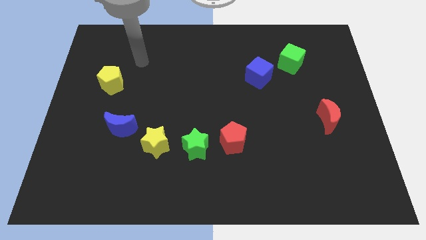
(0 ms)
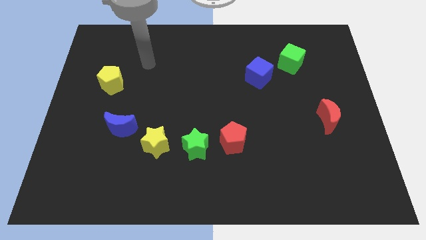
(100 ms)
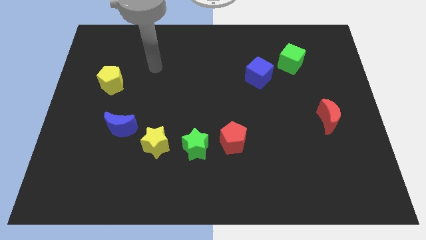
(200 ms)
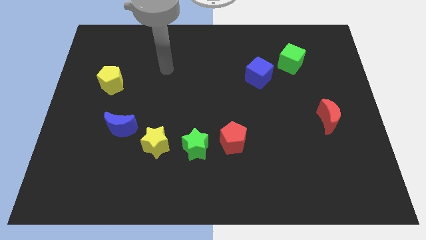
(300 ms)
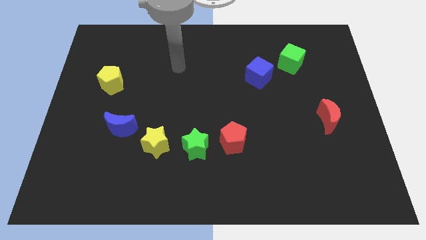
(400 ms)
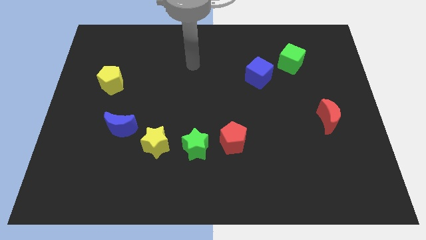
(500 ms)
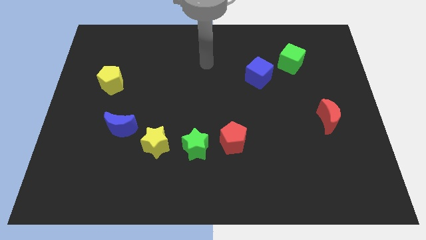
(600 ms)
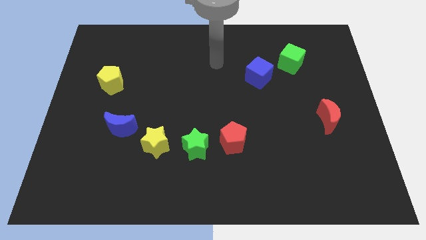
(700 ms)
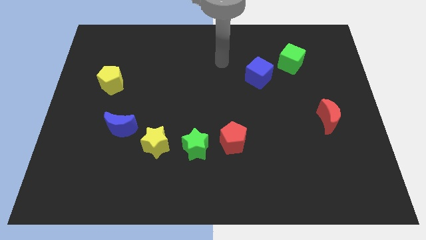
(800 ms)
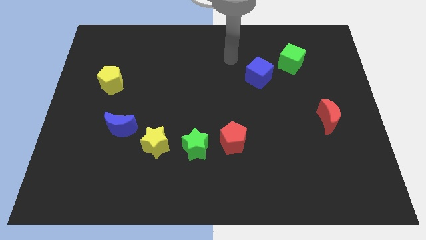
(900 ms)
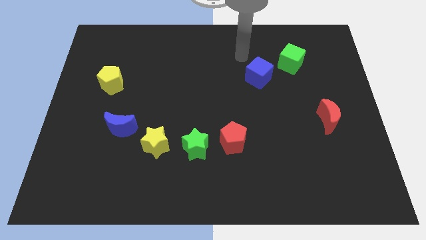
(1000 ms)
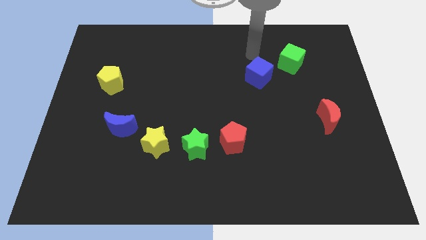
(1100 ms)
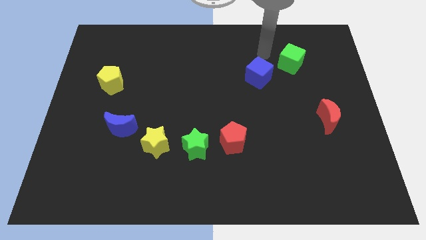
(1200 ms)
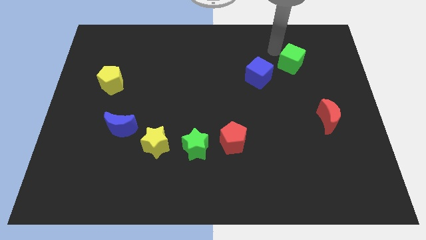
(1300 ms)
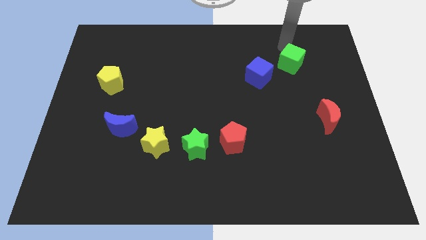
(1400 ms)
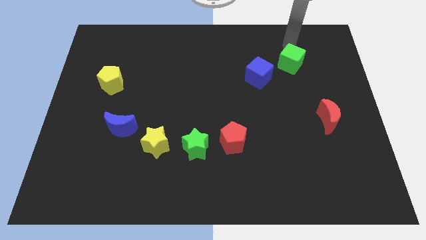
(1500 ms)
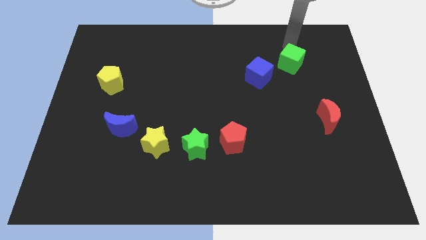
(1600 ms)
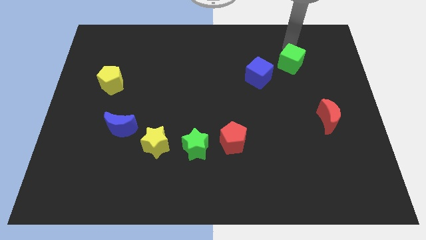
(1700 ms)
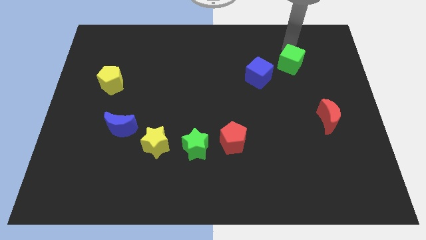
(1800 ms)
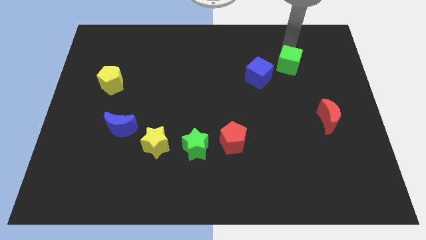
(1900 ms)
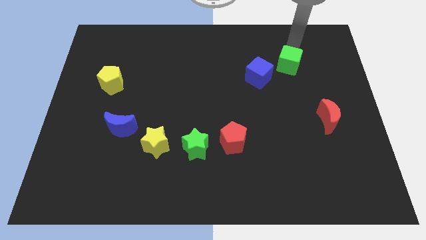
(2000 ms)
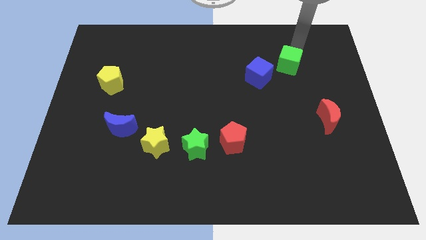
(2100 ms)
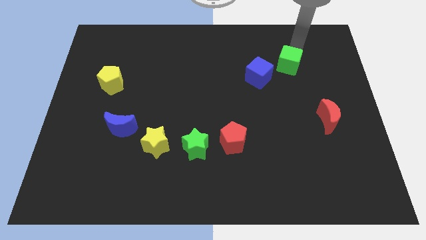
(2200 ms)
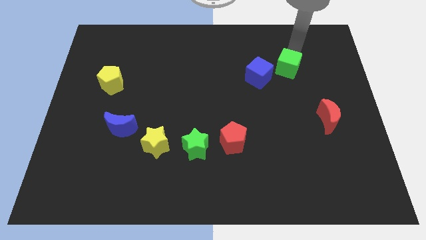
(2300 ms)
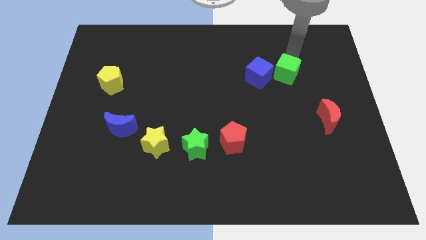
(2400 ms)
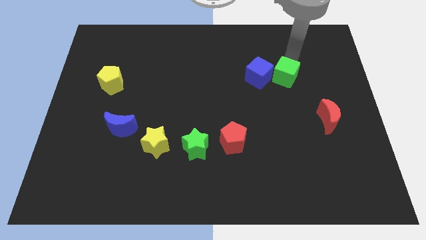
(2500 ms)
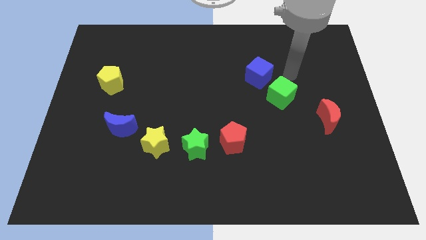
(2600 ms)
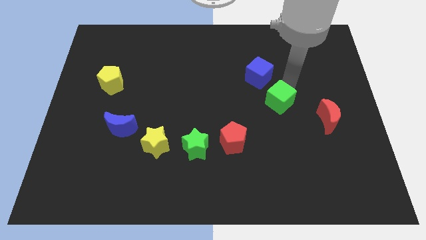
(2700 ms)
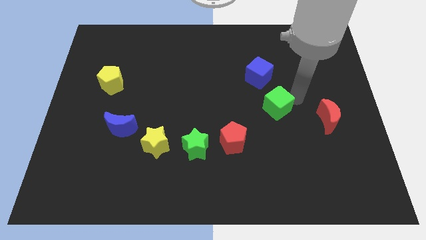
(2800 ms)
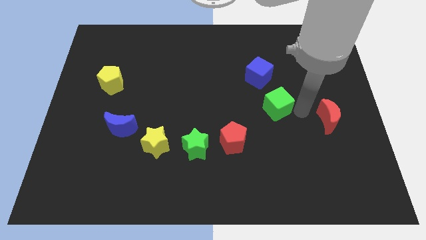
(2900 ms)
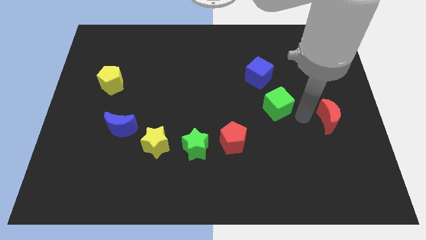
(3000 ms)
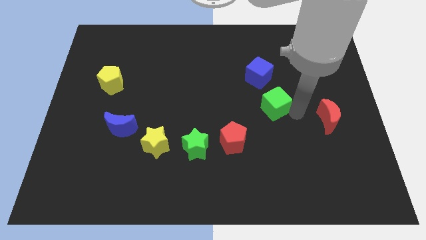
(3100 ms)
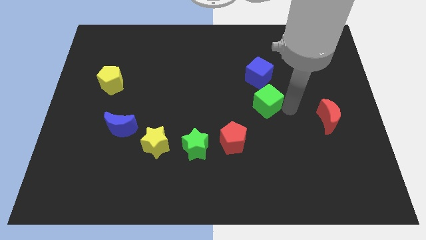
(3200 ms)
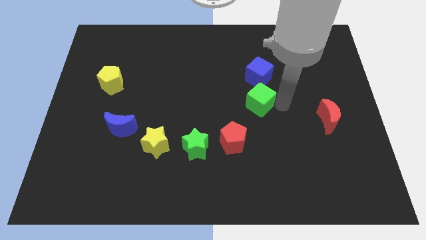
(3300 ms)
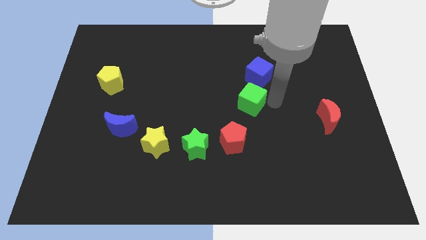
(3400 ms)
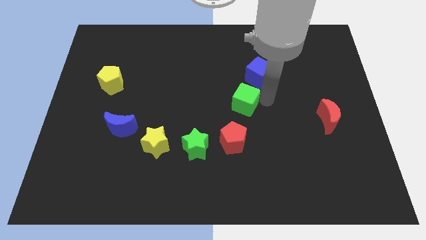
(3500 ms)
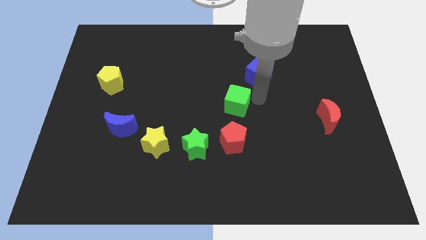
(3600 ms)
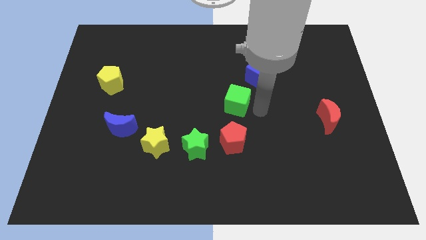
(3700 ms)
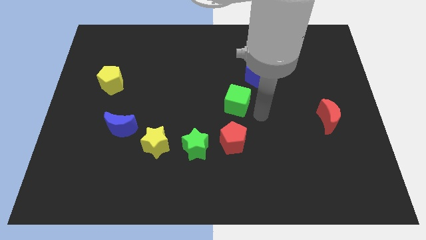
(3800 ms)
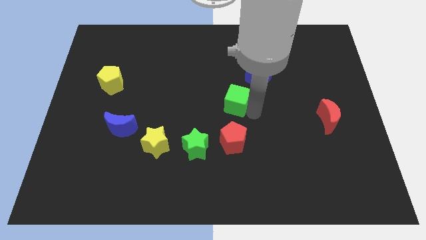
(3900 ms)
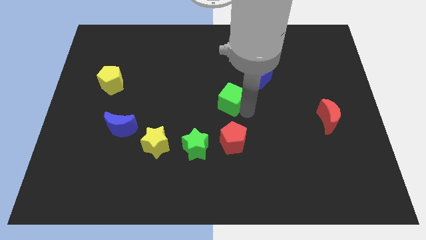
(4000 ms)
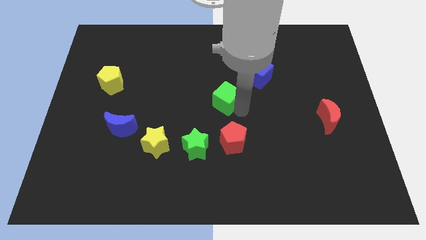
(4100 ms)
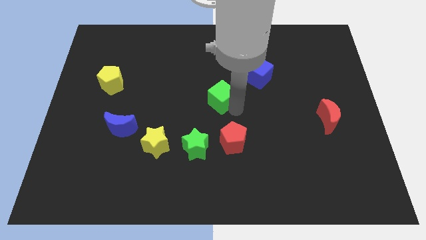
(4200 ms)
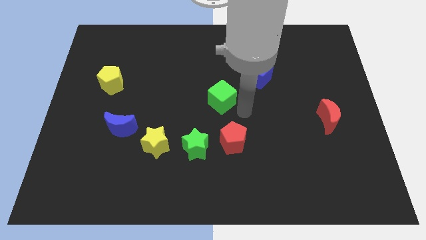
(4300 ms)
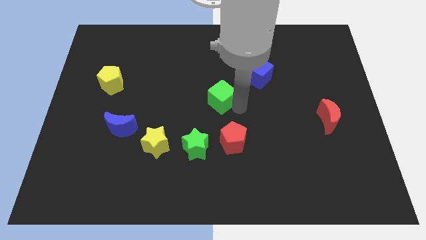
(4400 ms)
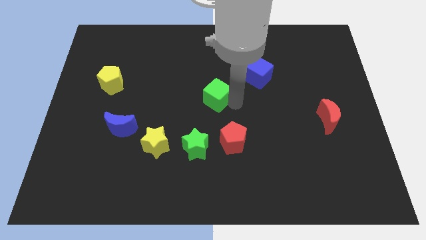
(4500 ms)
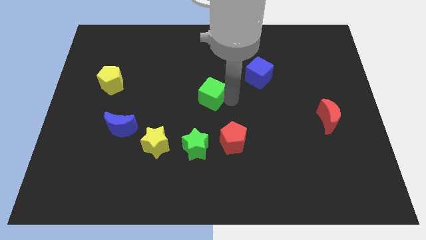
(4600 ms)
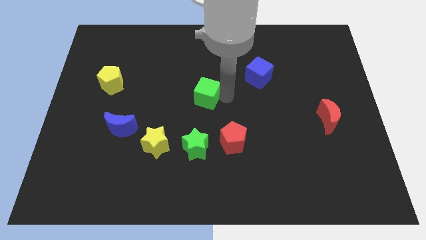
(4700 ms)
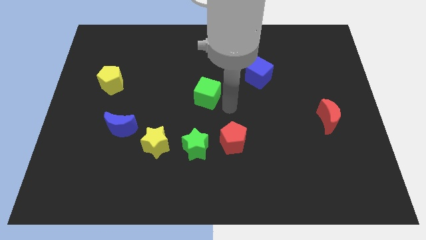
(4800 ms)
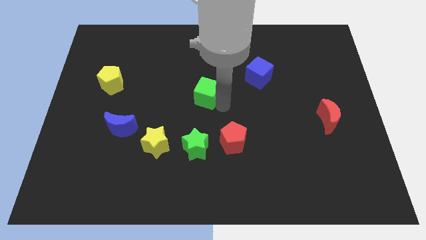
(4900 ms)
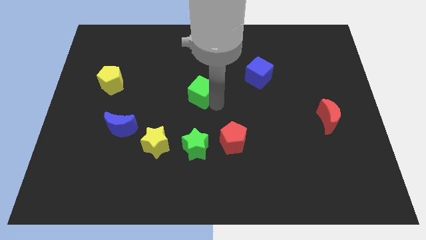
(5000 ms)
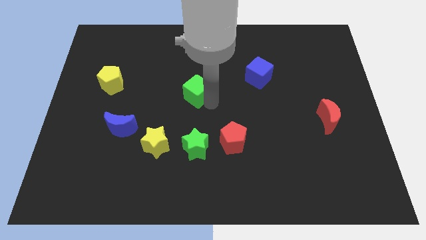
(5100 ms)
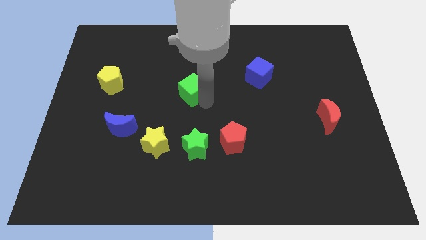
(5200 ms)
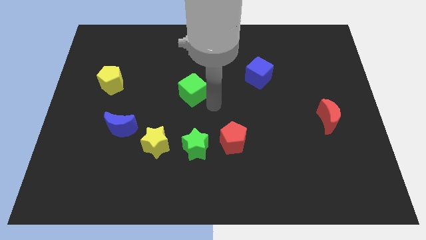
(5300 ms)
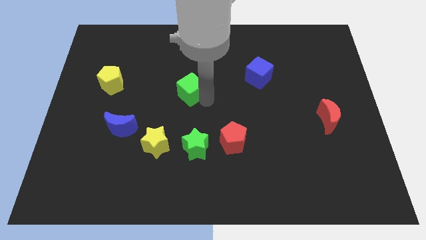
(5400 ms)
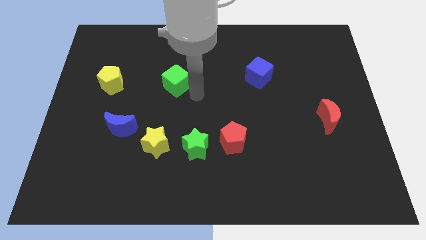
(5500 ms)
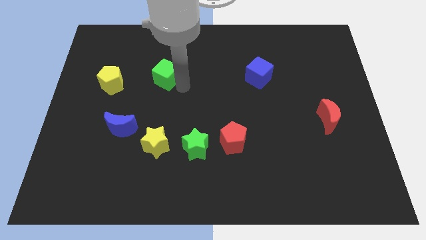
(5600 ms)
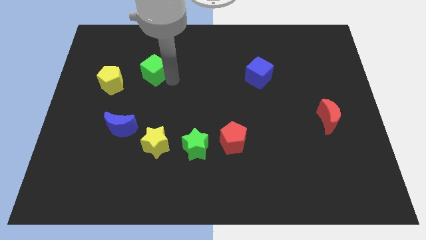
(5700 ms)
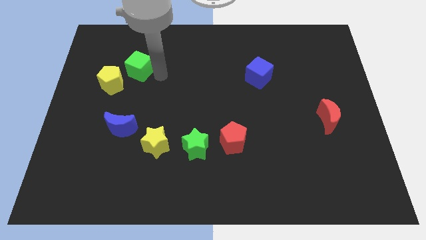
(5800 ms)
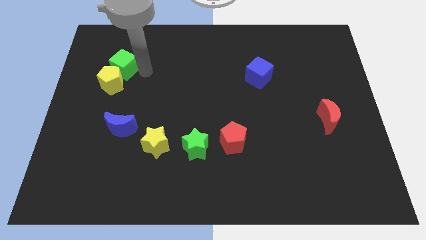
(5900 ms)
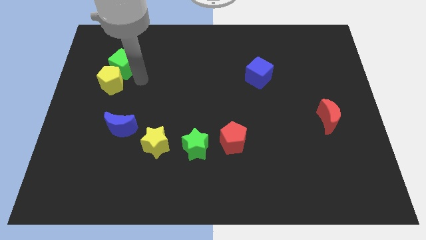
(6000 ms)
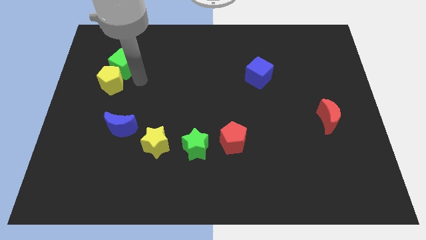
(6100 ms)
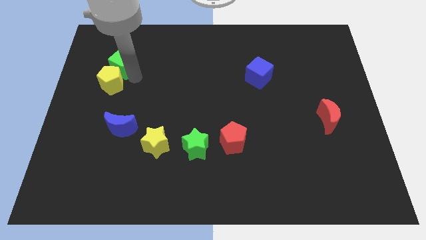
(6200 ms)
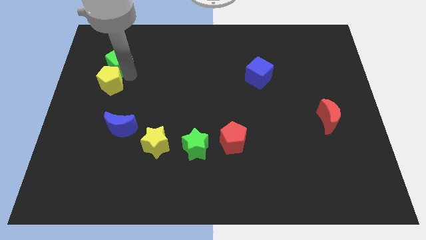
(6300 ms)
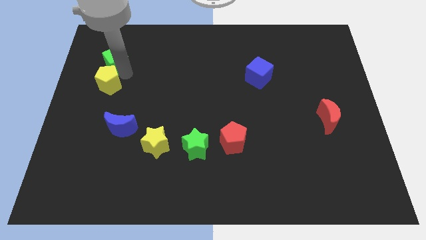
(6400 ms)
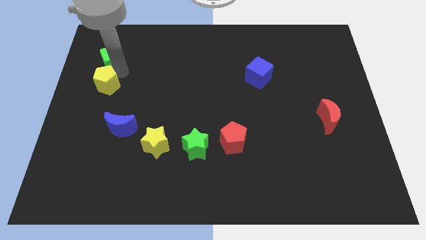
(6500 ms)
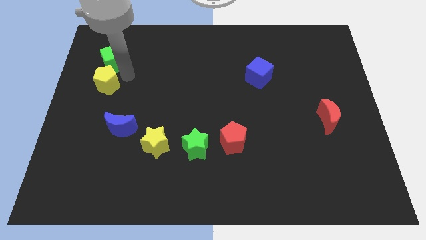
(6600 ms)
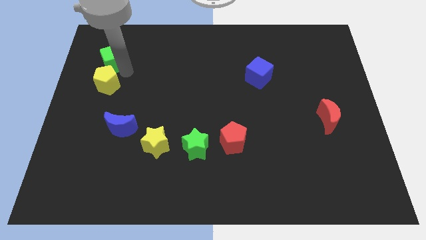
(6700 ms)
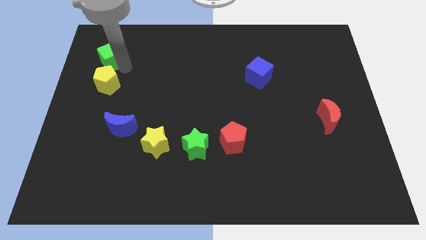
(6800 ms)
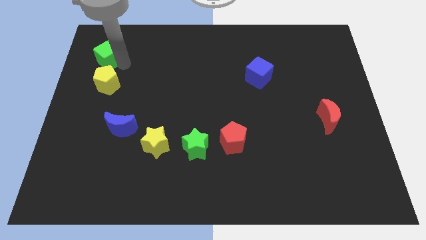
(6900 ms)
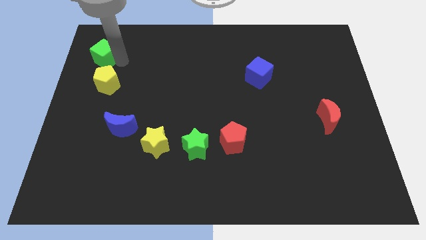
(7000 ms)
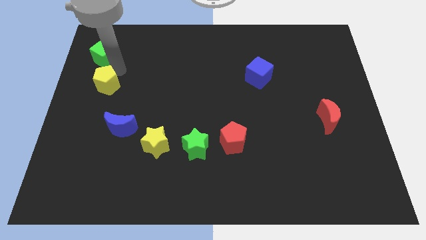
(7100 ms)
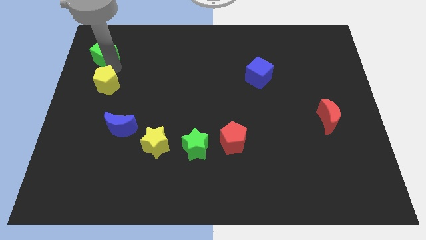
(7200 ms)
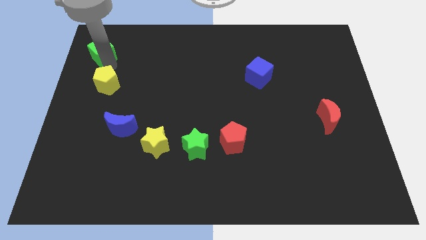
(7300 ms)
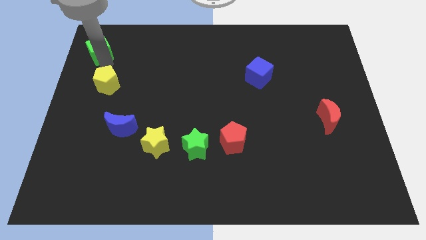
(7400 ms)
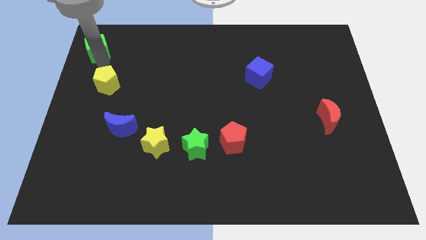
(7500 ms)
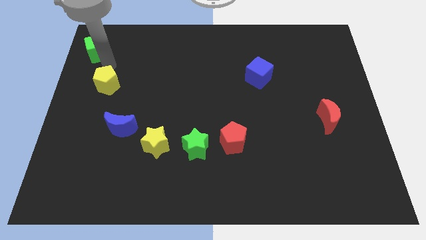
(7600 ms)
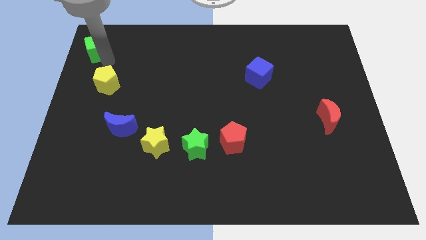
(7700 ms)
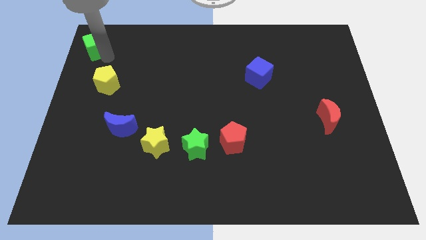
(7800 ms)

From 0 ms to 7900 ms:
push the green cube to the top left of the board
